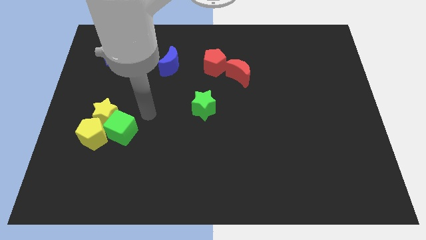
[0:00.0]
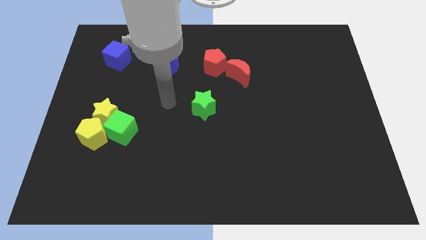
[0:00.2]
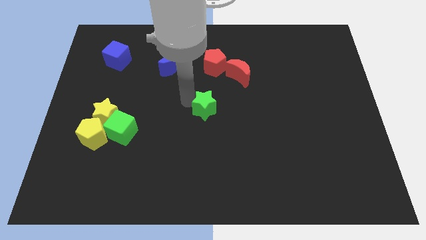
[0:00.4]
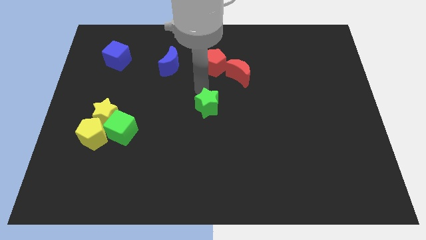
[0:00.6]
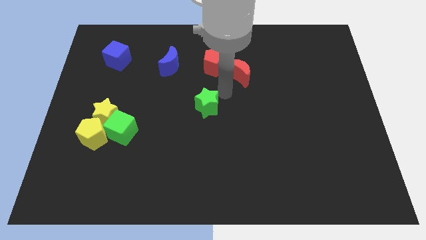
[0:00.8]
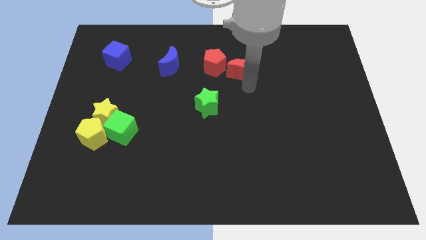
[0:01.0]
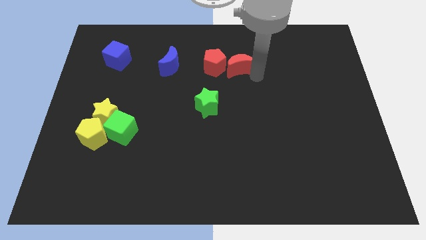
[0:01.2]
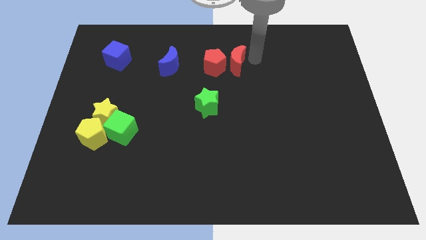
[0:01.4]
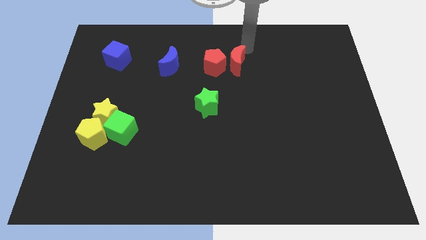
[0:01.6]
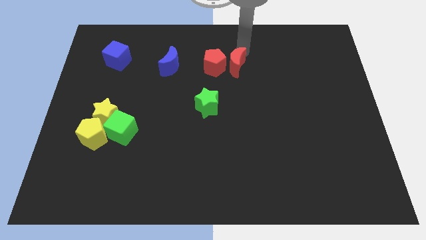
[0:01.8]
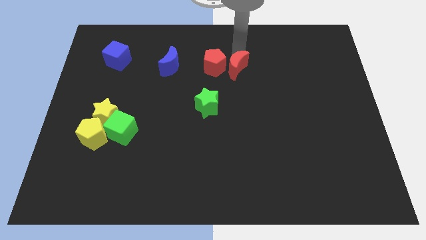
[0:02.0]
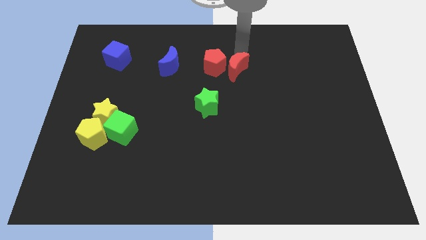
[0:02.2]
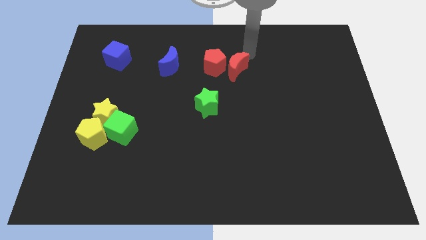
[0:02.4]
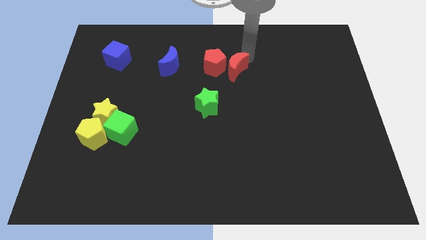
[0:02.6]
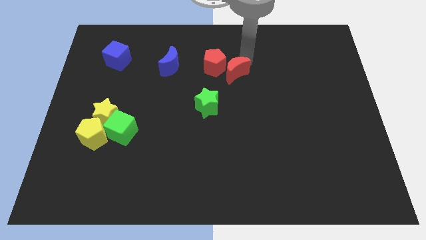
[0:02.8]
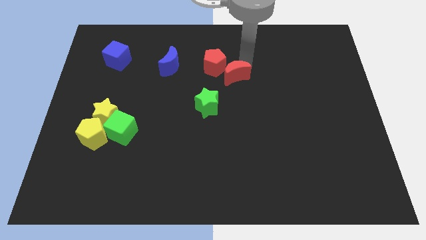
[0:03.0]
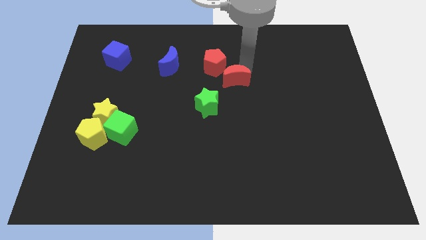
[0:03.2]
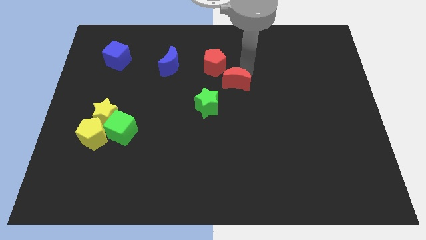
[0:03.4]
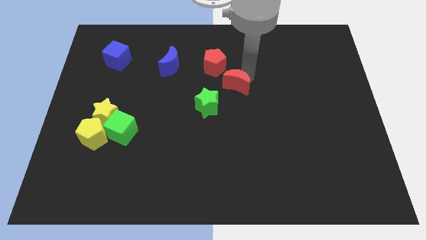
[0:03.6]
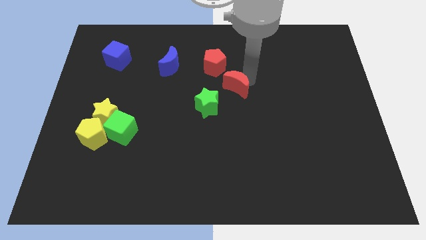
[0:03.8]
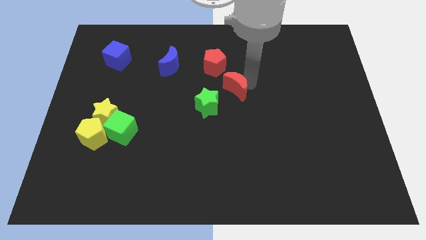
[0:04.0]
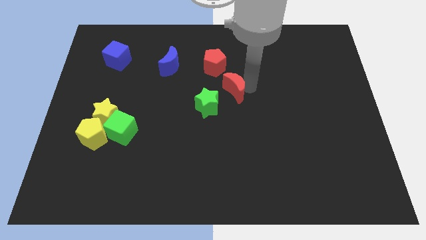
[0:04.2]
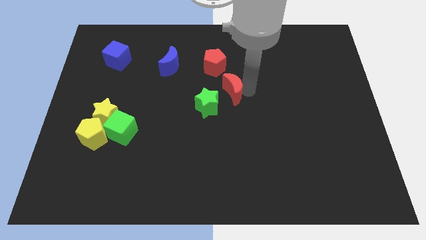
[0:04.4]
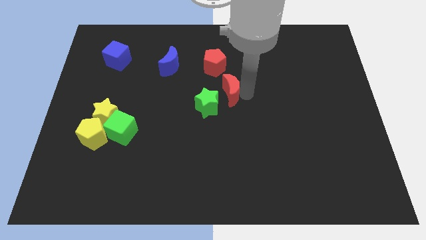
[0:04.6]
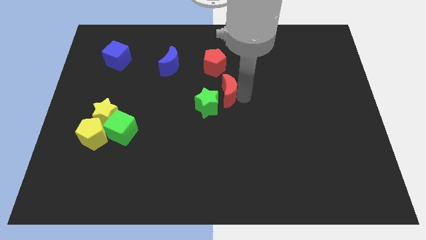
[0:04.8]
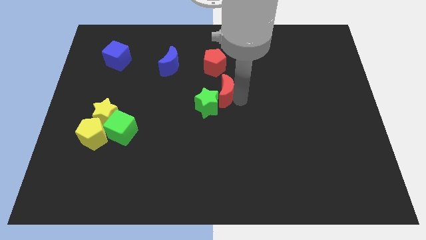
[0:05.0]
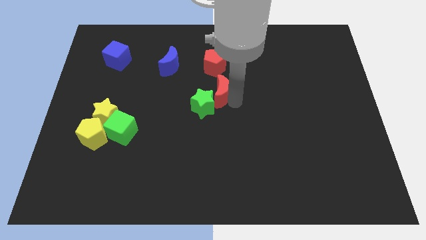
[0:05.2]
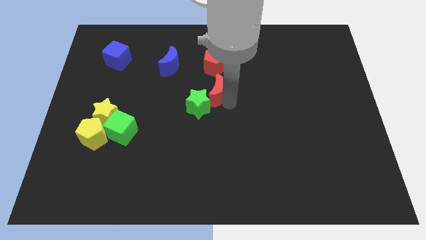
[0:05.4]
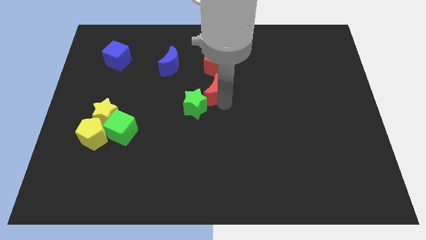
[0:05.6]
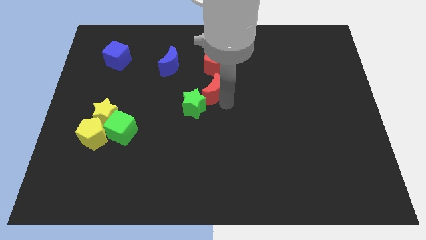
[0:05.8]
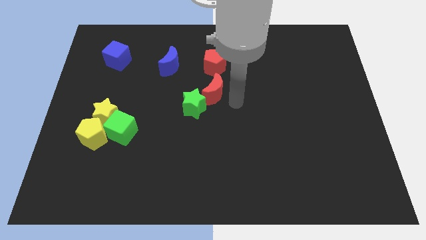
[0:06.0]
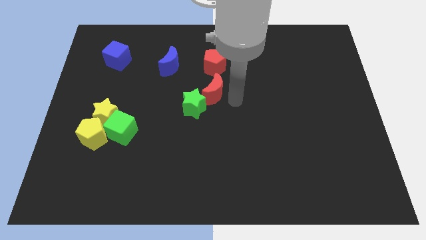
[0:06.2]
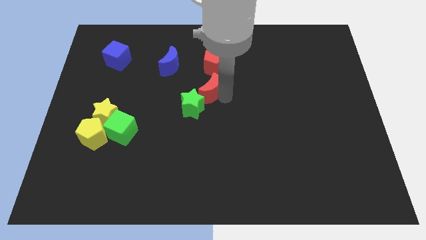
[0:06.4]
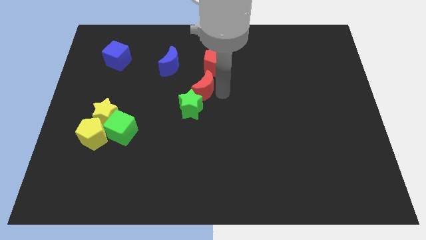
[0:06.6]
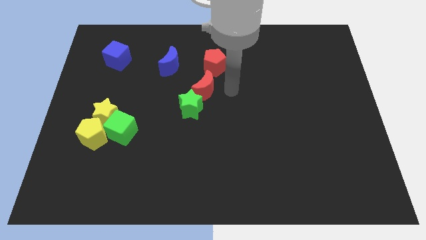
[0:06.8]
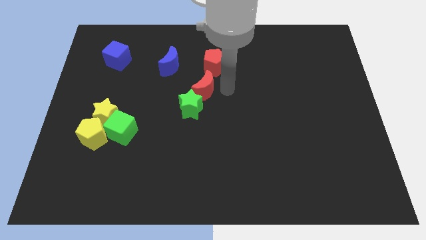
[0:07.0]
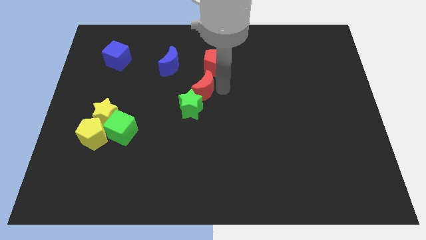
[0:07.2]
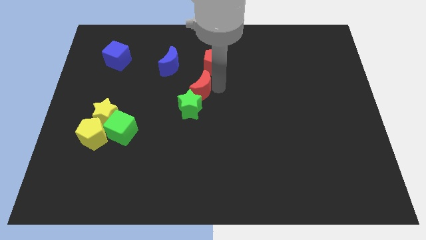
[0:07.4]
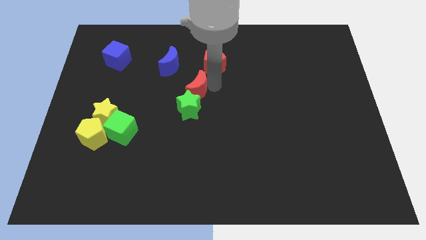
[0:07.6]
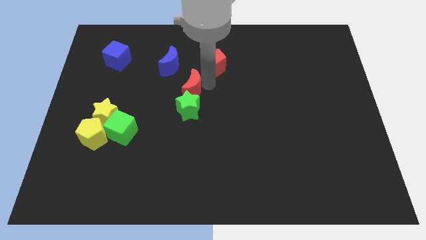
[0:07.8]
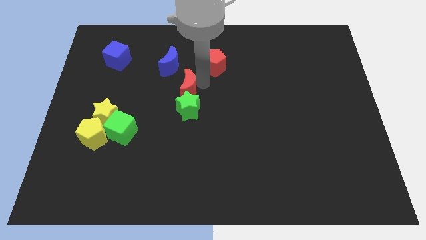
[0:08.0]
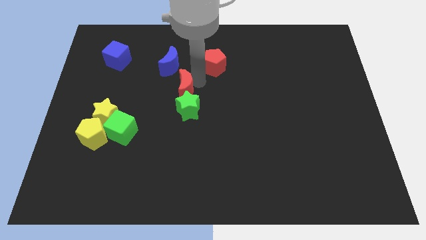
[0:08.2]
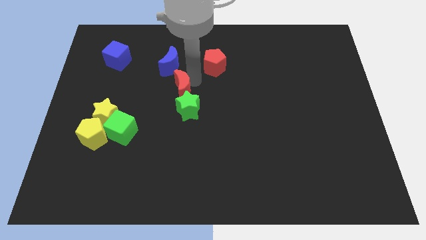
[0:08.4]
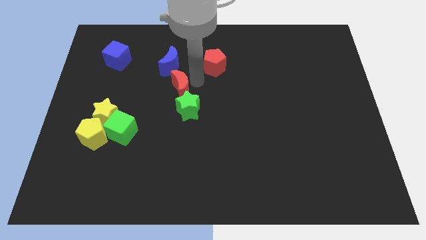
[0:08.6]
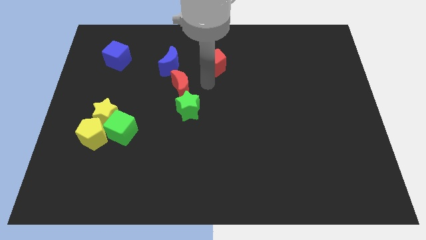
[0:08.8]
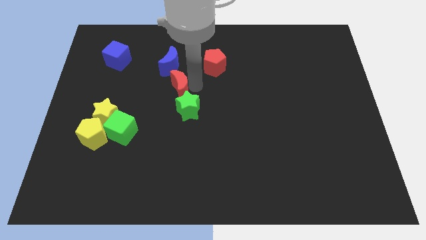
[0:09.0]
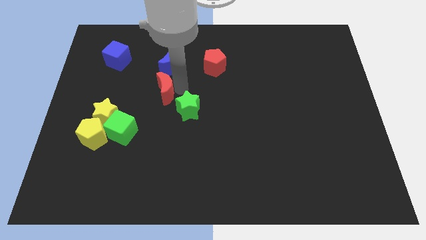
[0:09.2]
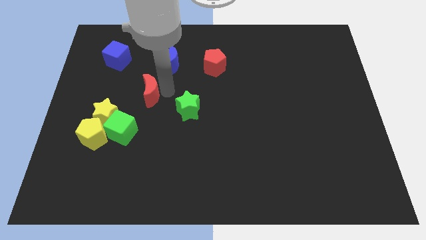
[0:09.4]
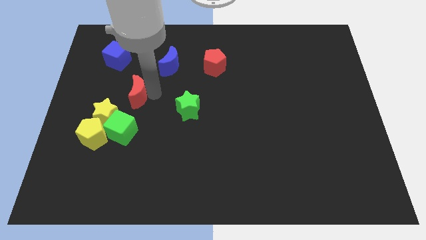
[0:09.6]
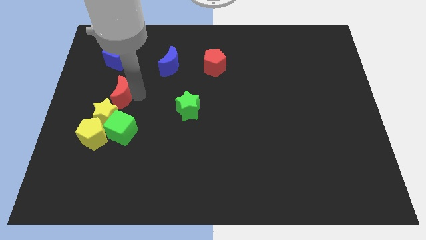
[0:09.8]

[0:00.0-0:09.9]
put the red moon to the top of the yellow pentagon

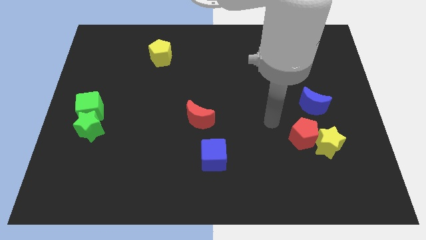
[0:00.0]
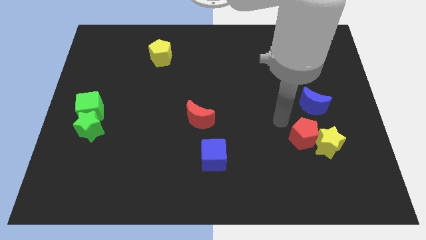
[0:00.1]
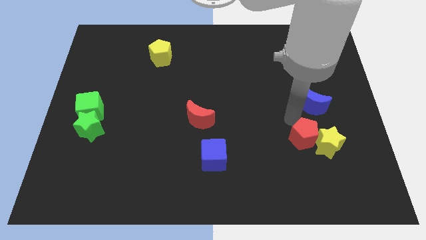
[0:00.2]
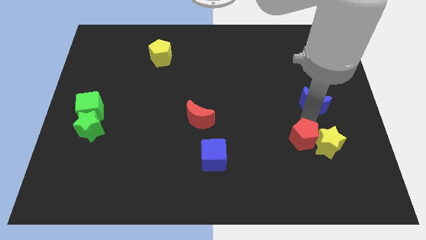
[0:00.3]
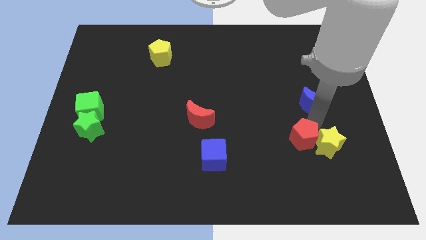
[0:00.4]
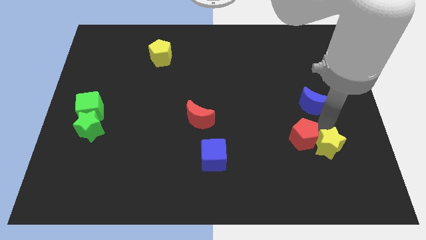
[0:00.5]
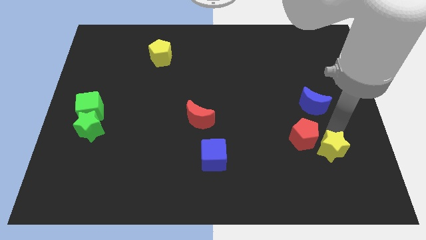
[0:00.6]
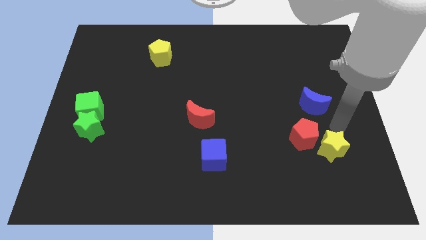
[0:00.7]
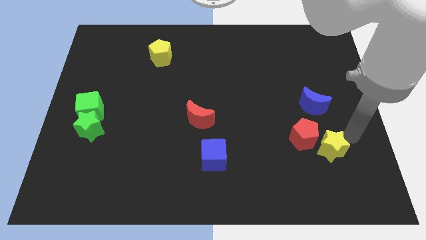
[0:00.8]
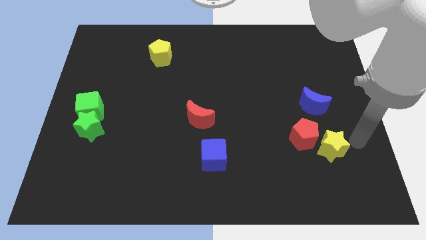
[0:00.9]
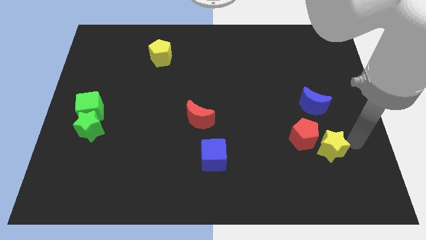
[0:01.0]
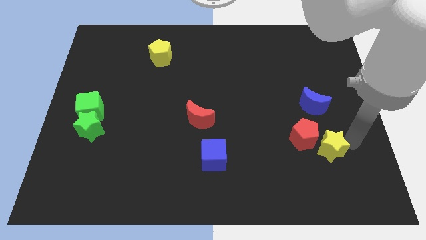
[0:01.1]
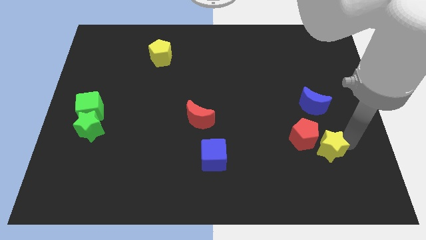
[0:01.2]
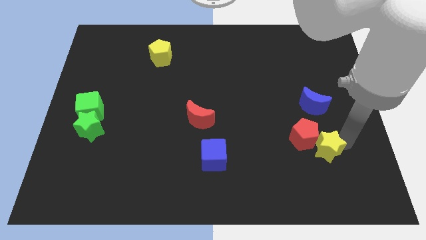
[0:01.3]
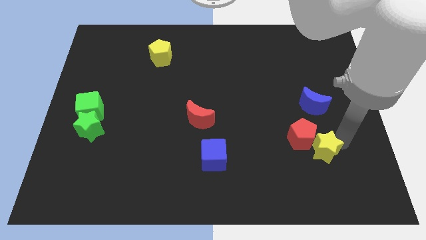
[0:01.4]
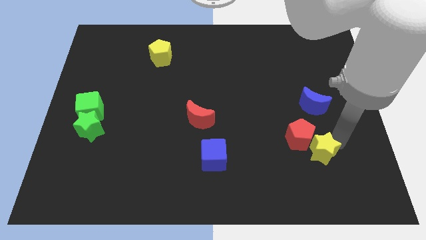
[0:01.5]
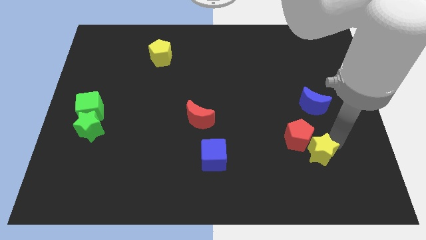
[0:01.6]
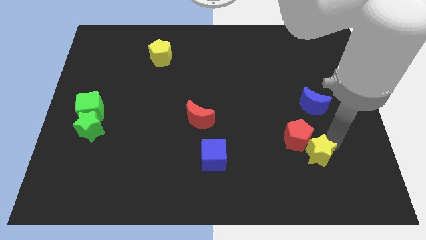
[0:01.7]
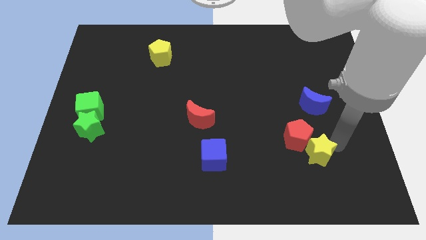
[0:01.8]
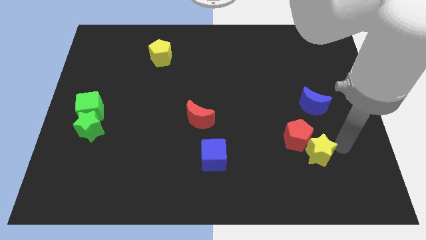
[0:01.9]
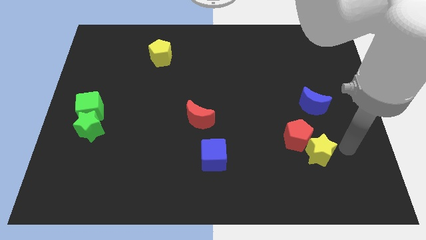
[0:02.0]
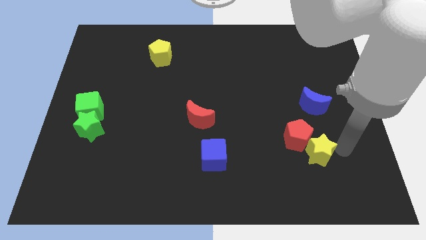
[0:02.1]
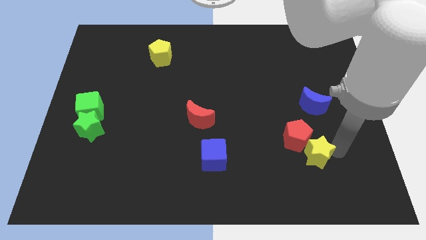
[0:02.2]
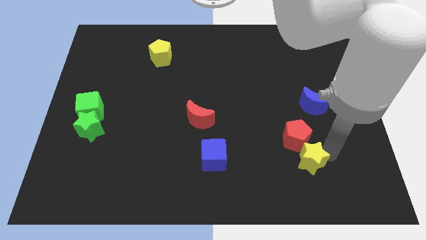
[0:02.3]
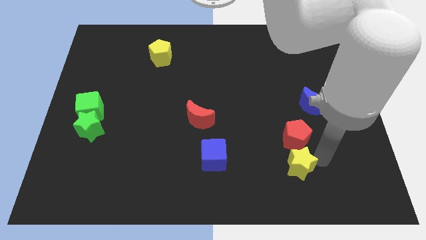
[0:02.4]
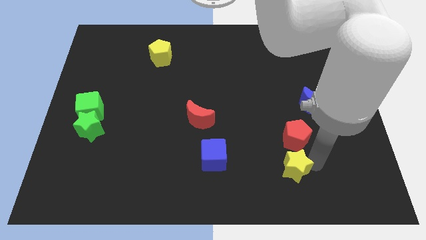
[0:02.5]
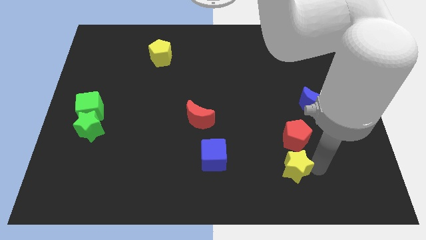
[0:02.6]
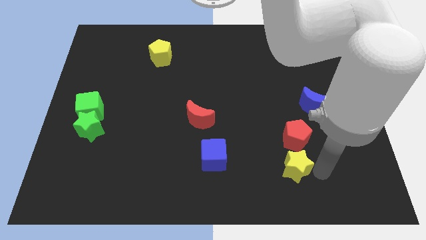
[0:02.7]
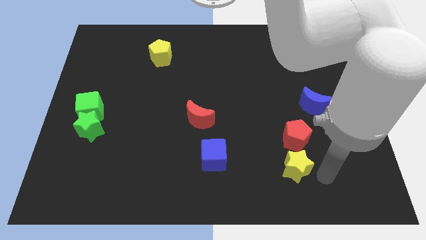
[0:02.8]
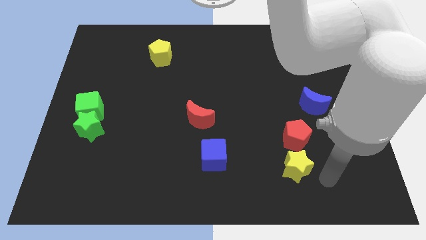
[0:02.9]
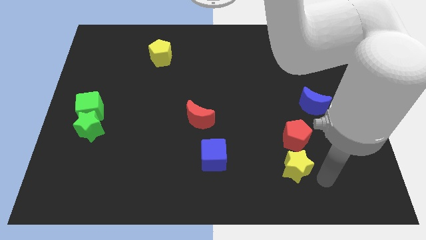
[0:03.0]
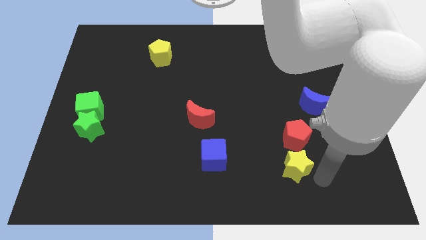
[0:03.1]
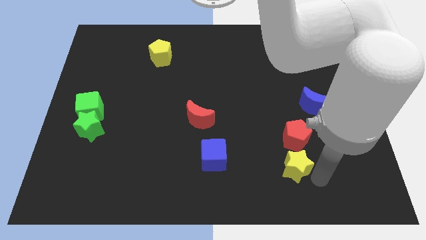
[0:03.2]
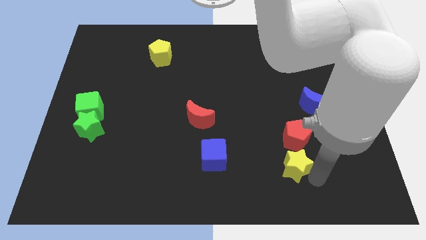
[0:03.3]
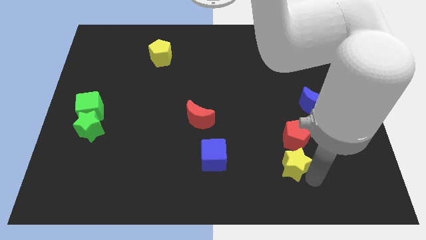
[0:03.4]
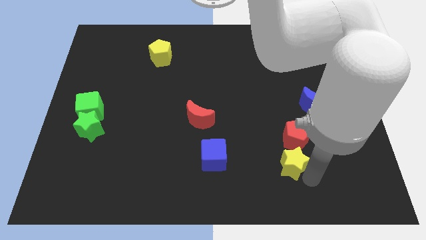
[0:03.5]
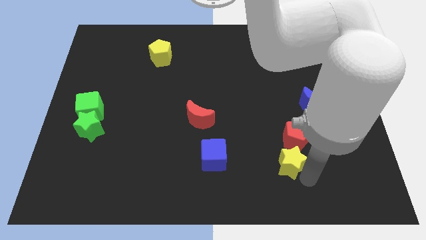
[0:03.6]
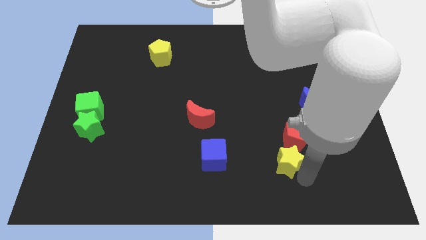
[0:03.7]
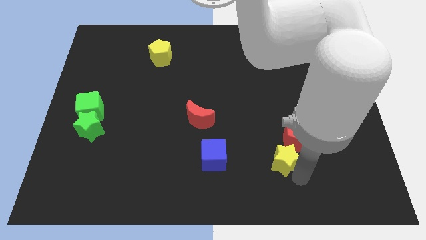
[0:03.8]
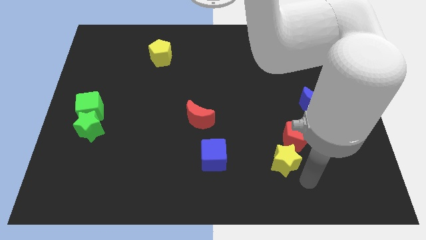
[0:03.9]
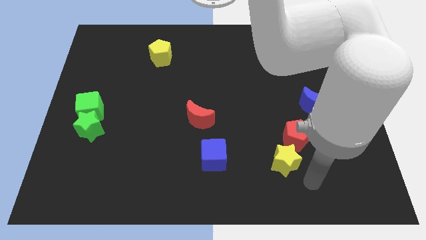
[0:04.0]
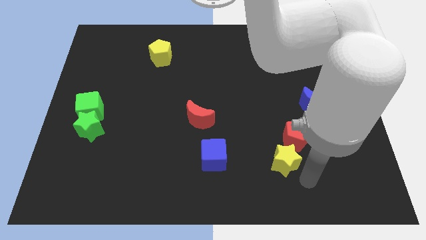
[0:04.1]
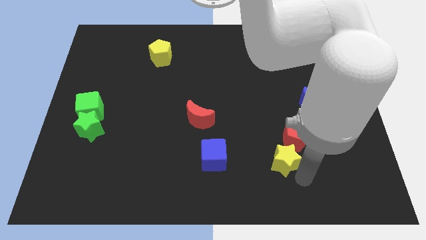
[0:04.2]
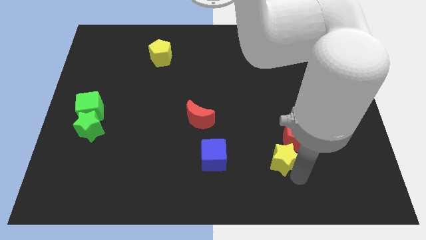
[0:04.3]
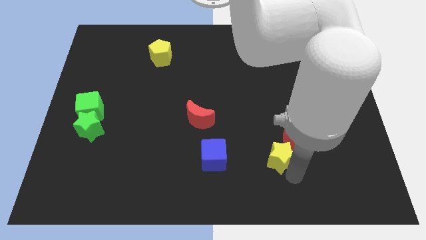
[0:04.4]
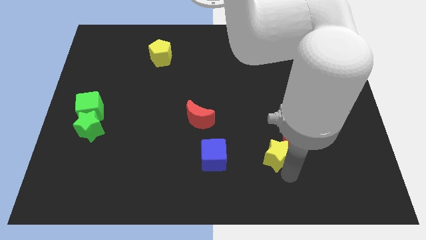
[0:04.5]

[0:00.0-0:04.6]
push the yellow star to the left of the red pentagon
